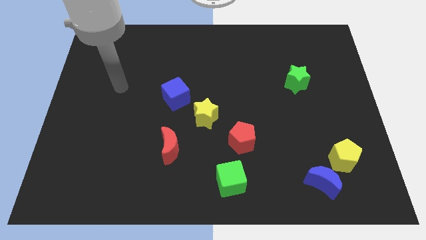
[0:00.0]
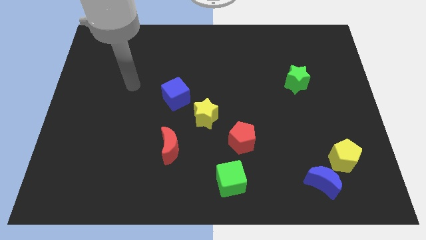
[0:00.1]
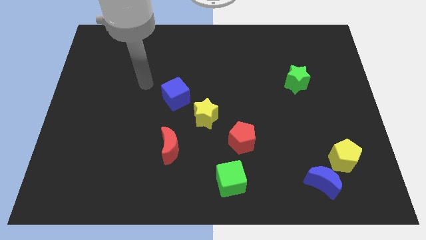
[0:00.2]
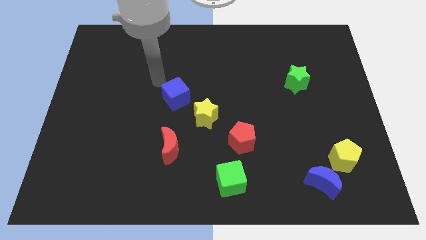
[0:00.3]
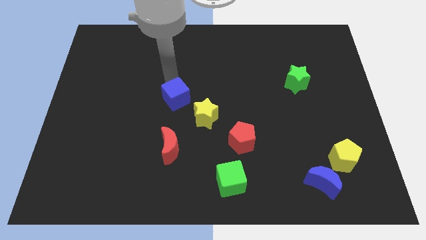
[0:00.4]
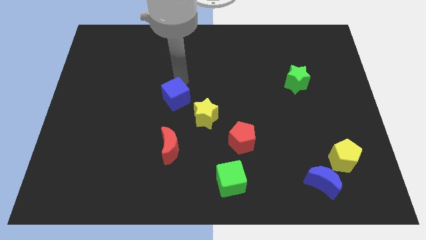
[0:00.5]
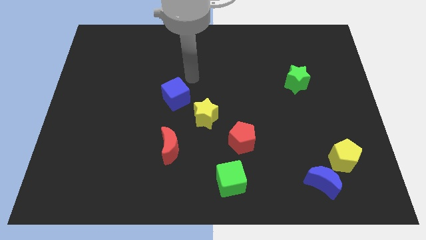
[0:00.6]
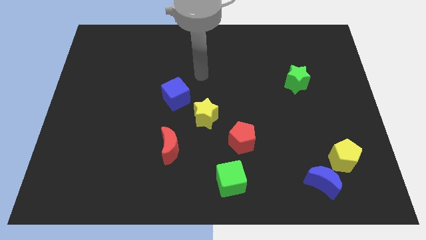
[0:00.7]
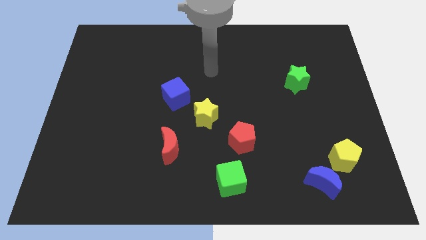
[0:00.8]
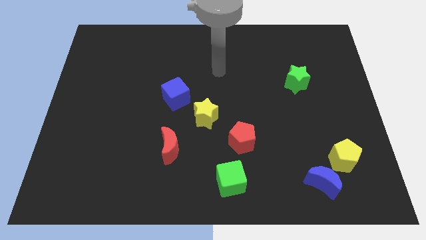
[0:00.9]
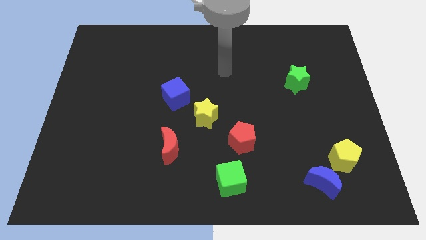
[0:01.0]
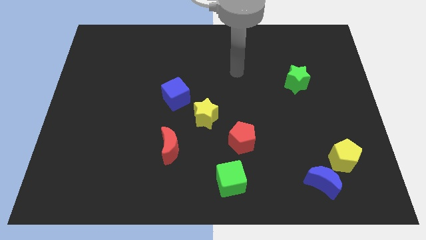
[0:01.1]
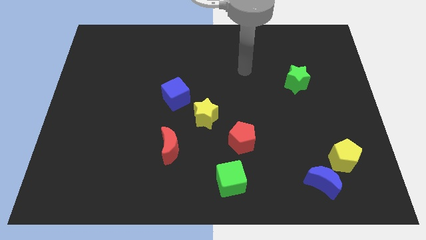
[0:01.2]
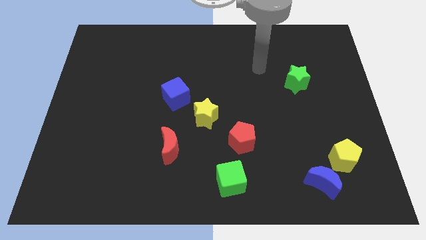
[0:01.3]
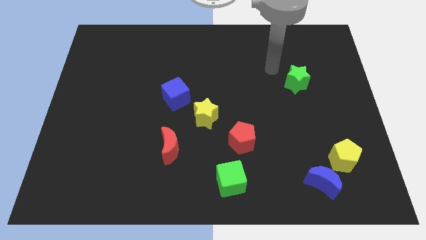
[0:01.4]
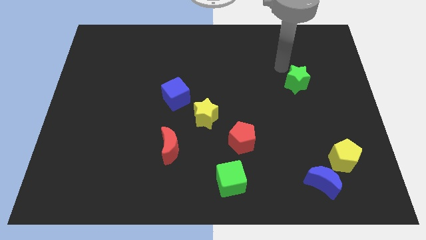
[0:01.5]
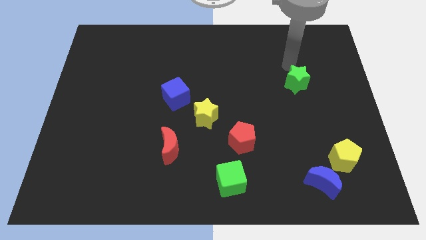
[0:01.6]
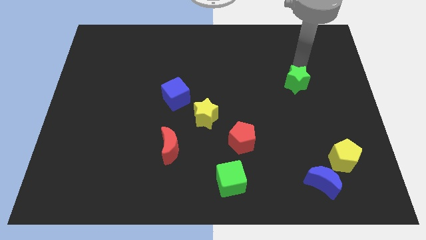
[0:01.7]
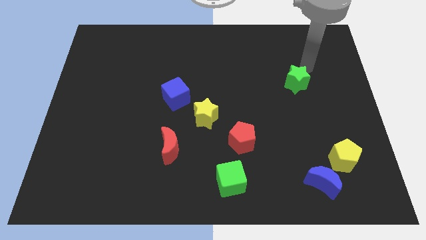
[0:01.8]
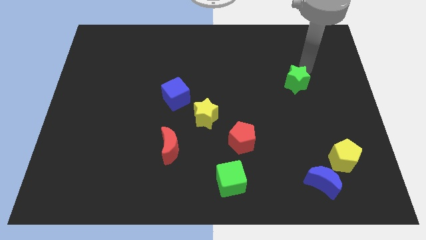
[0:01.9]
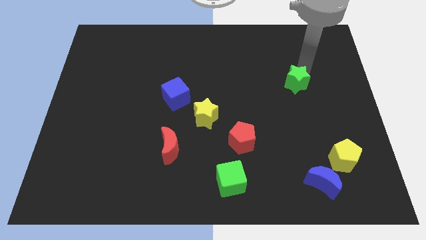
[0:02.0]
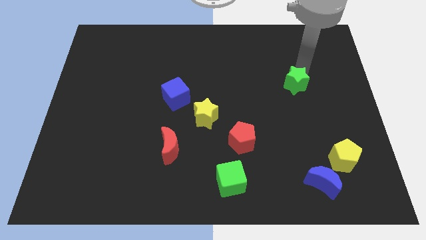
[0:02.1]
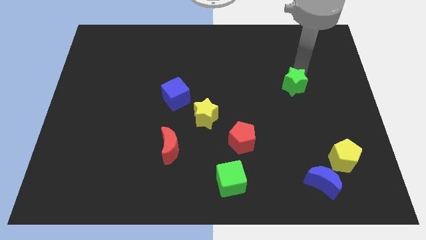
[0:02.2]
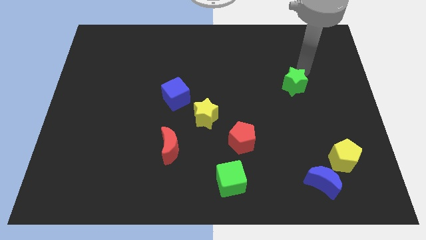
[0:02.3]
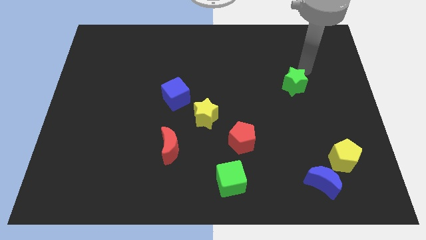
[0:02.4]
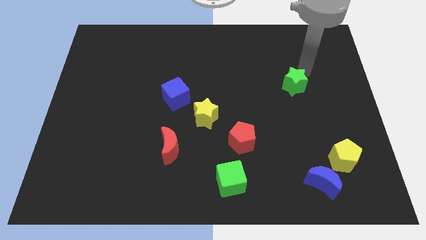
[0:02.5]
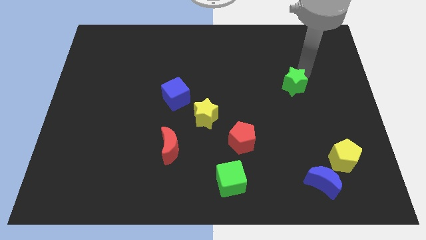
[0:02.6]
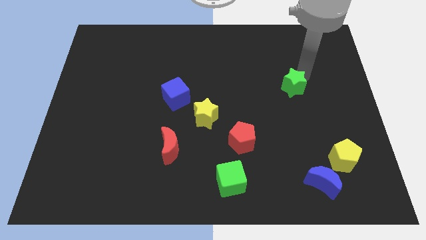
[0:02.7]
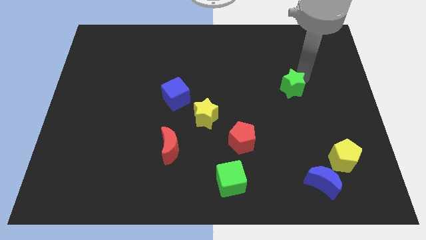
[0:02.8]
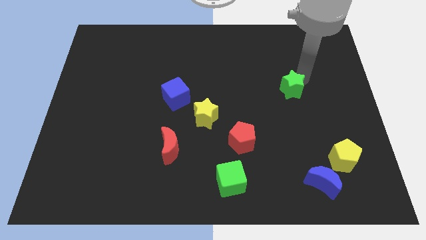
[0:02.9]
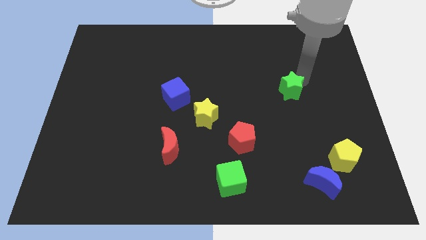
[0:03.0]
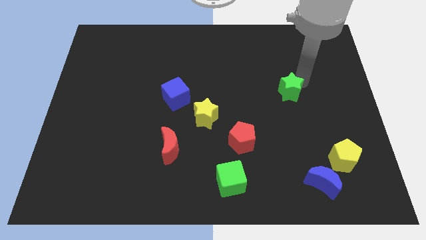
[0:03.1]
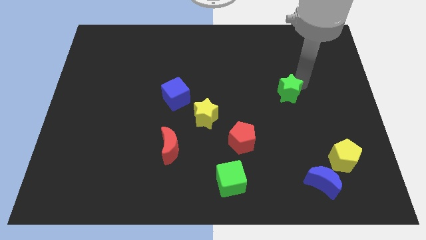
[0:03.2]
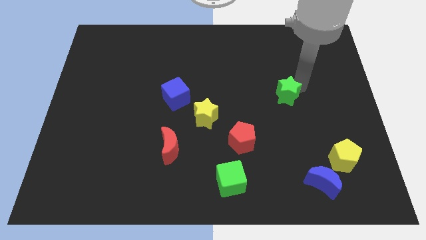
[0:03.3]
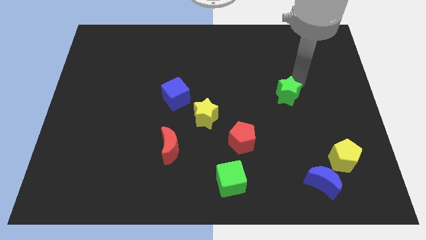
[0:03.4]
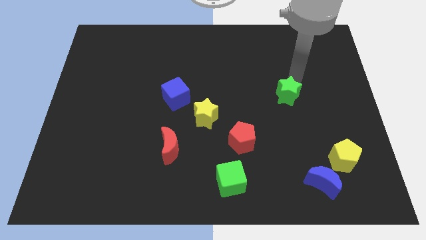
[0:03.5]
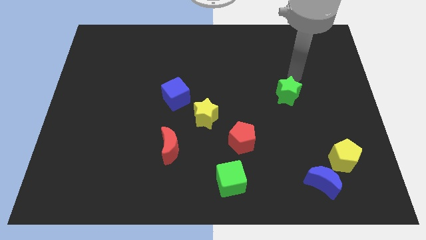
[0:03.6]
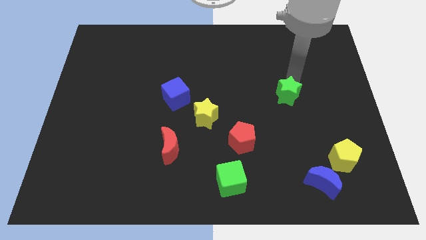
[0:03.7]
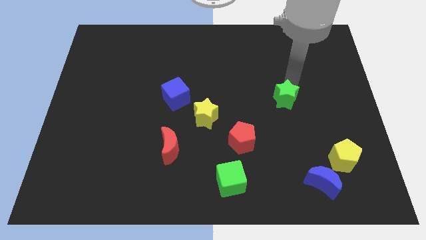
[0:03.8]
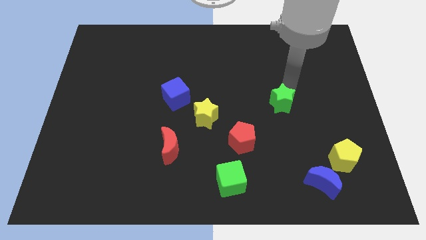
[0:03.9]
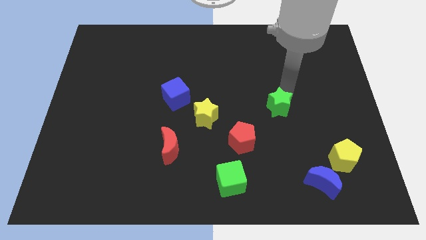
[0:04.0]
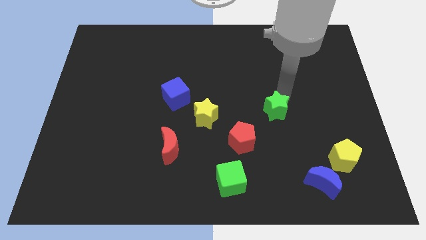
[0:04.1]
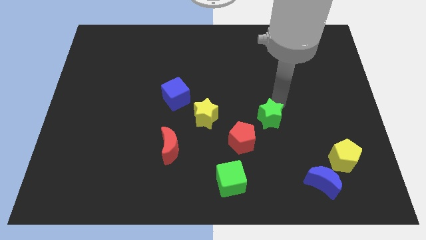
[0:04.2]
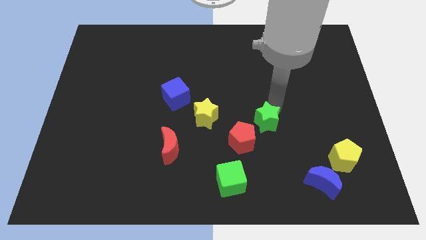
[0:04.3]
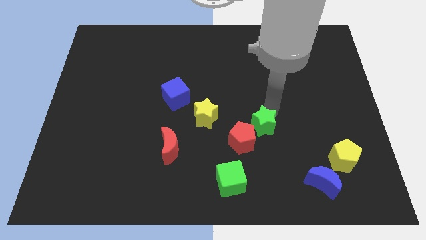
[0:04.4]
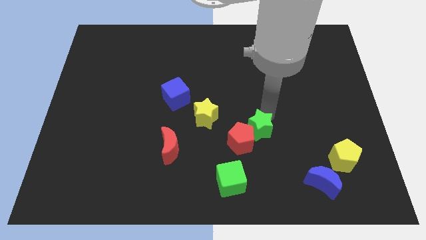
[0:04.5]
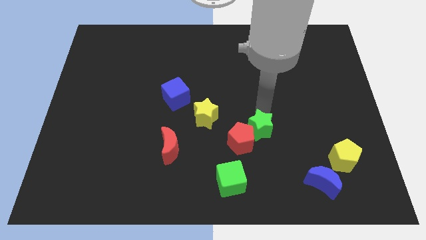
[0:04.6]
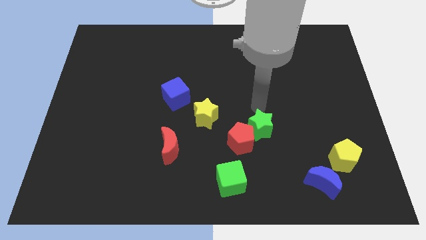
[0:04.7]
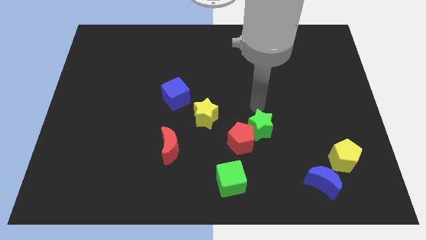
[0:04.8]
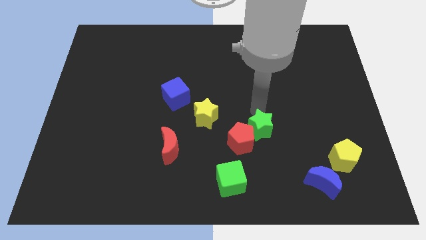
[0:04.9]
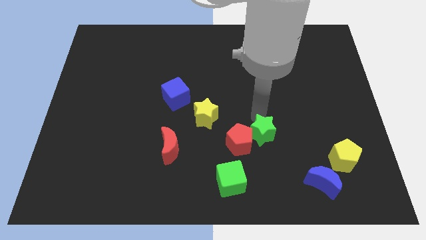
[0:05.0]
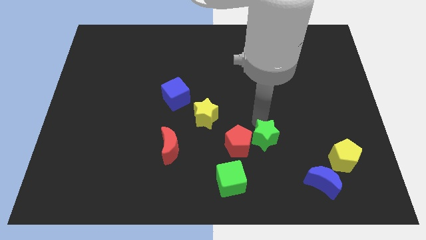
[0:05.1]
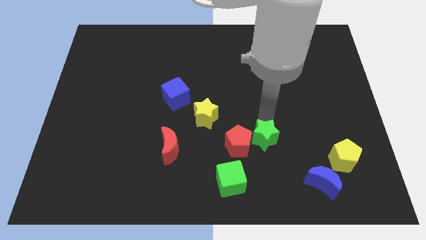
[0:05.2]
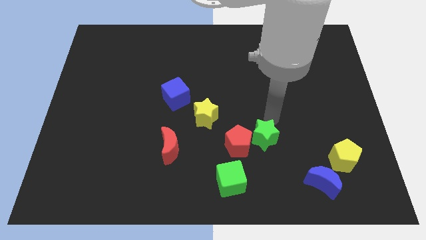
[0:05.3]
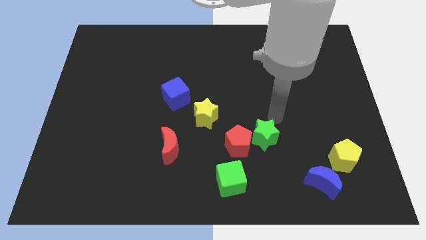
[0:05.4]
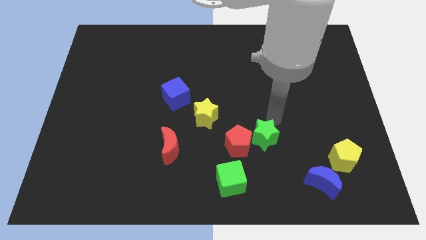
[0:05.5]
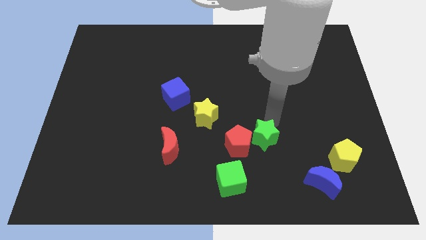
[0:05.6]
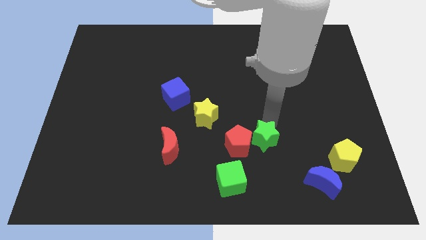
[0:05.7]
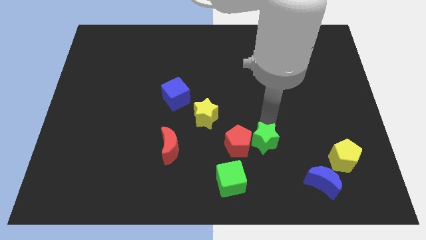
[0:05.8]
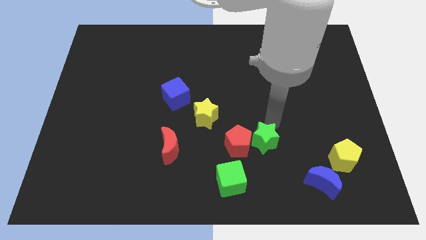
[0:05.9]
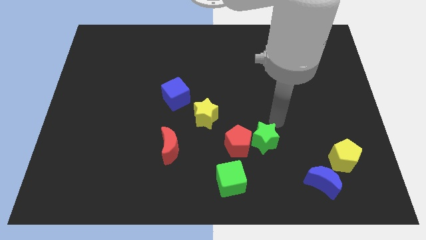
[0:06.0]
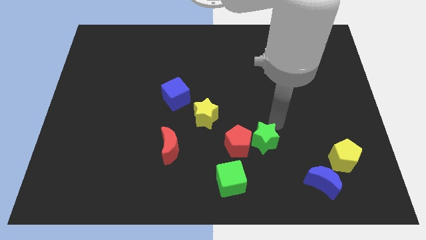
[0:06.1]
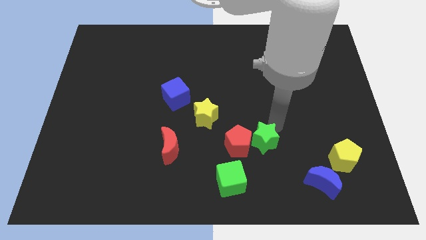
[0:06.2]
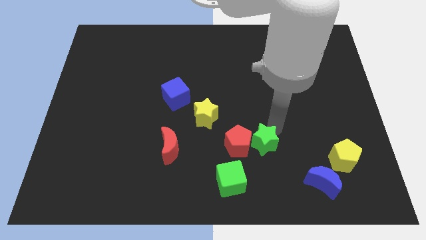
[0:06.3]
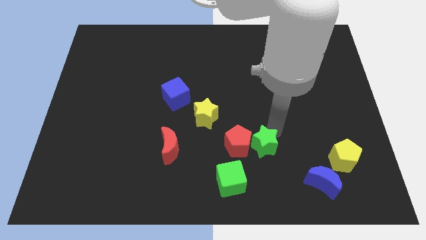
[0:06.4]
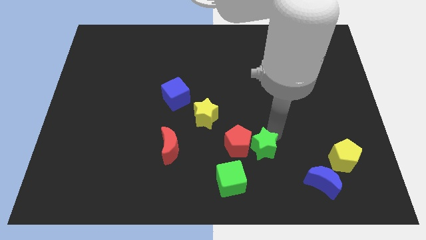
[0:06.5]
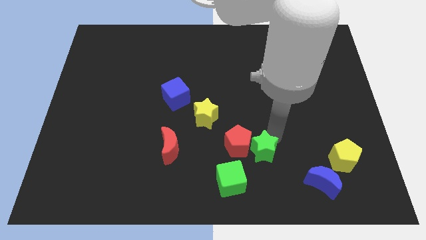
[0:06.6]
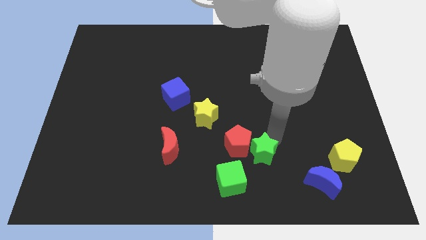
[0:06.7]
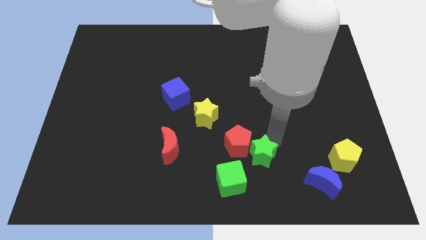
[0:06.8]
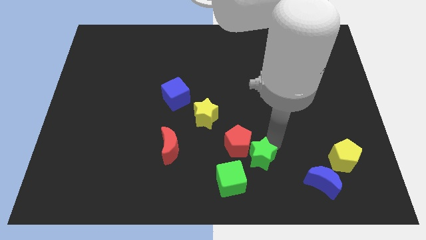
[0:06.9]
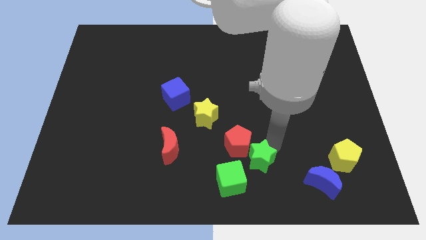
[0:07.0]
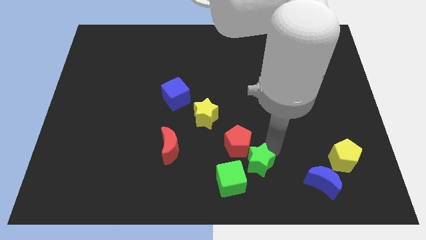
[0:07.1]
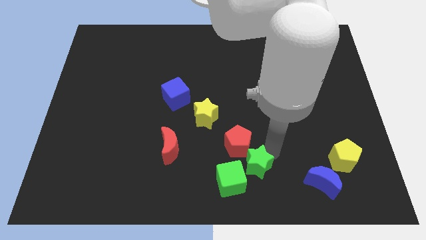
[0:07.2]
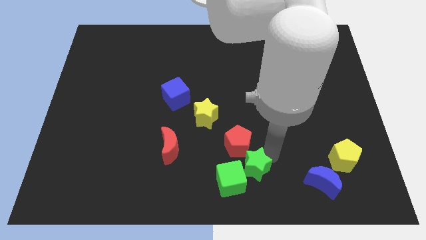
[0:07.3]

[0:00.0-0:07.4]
put the green star to the green cube

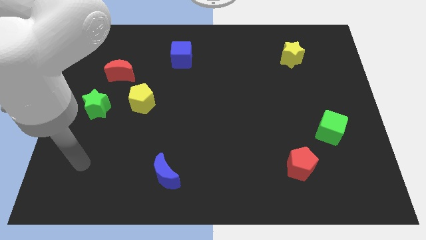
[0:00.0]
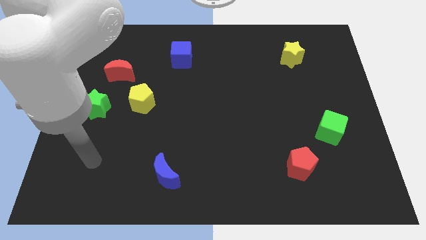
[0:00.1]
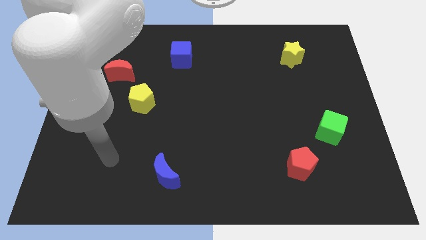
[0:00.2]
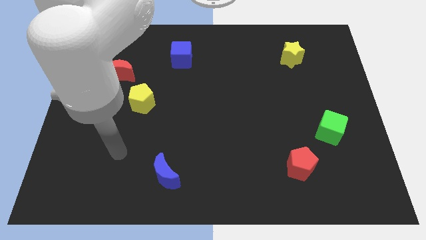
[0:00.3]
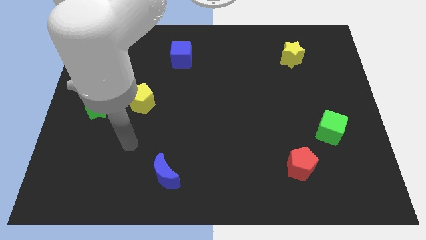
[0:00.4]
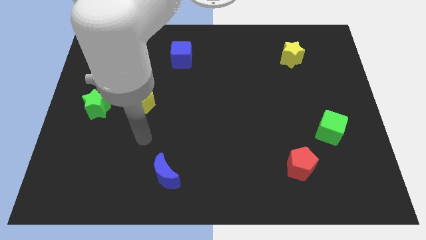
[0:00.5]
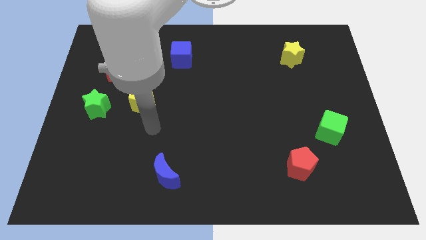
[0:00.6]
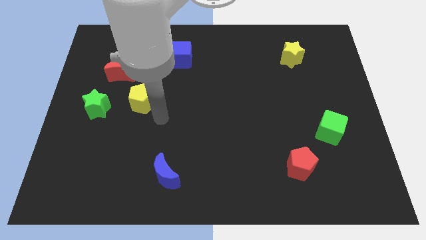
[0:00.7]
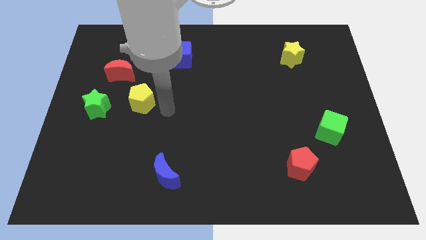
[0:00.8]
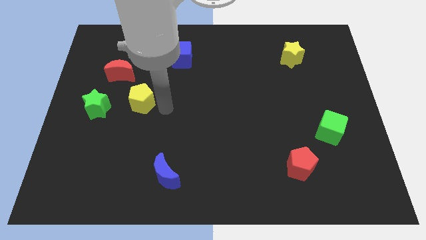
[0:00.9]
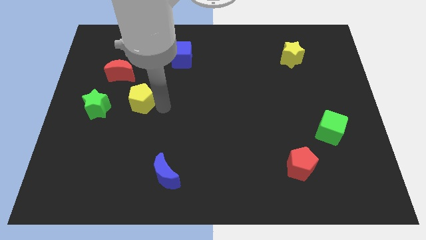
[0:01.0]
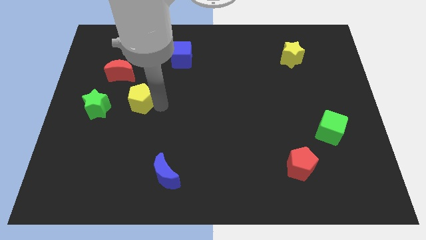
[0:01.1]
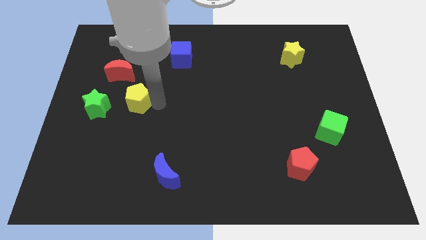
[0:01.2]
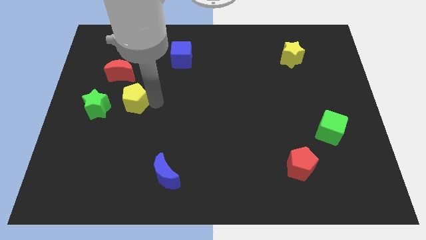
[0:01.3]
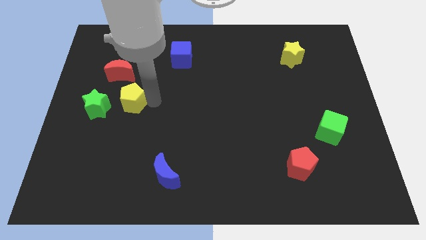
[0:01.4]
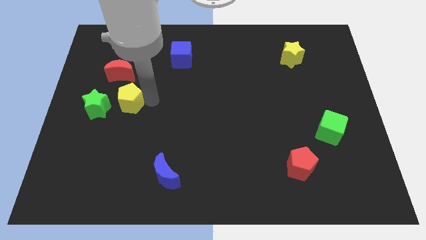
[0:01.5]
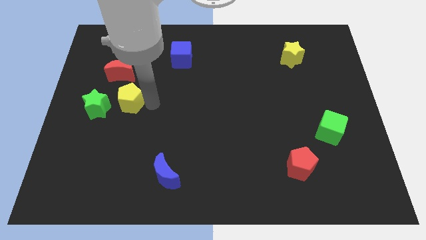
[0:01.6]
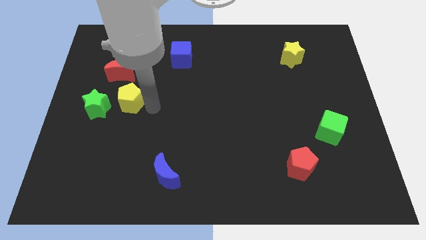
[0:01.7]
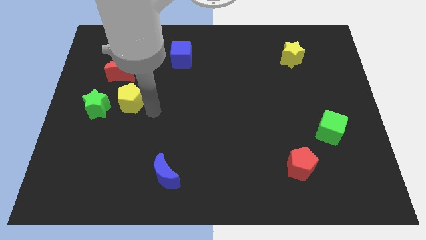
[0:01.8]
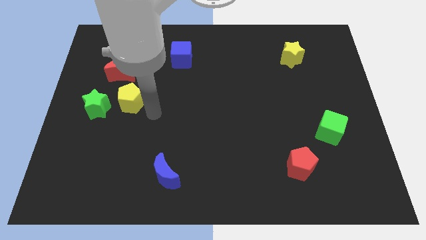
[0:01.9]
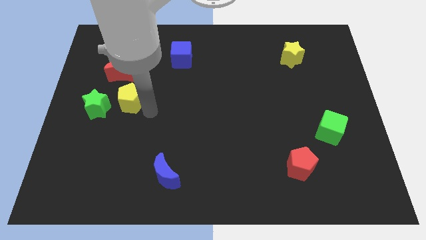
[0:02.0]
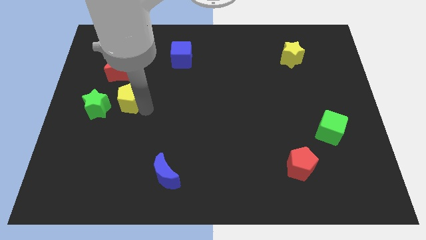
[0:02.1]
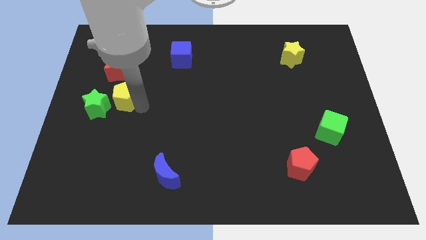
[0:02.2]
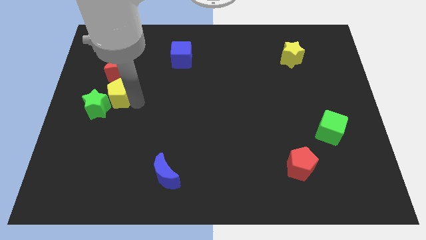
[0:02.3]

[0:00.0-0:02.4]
put the yellow pentagon next to the green star
